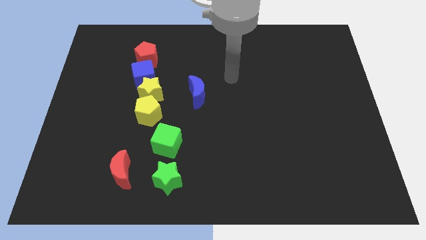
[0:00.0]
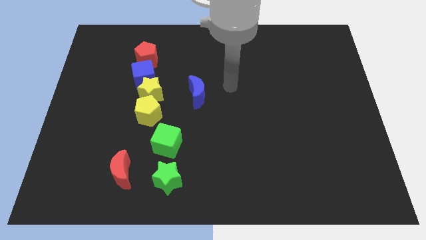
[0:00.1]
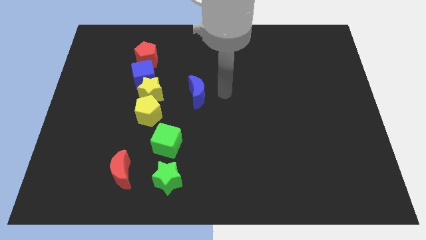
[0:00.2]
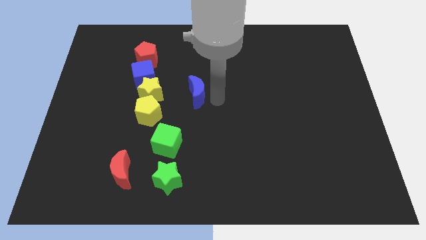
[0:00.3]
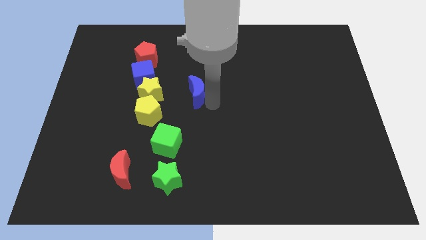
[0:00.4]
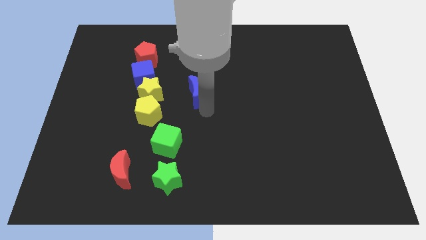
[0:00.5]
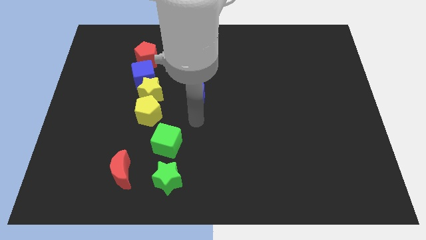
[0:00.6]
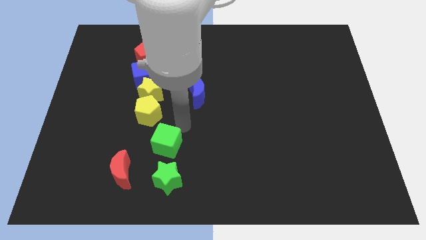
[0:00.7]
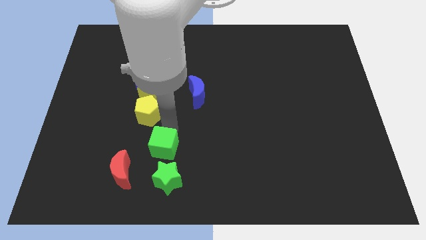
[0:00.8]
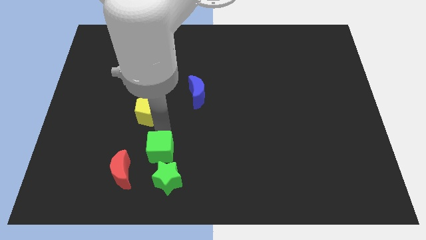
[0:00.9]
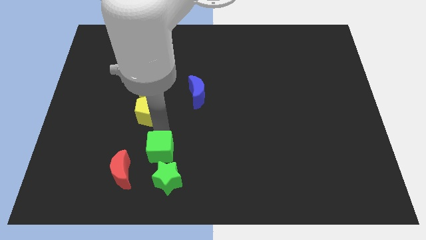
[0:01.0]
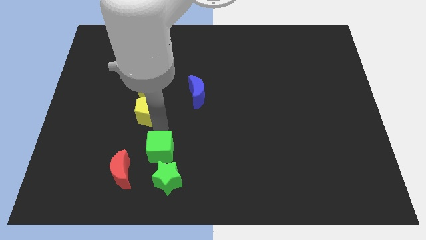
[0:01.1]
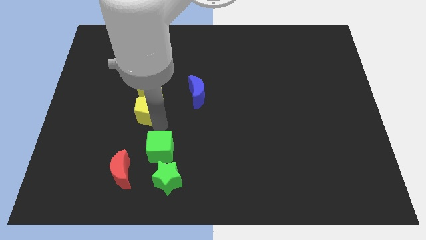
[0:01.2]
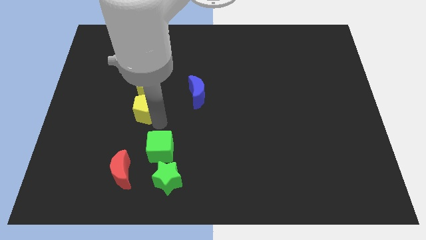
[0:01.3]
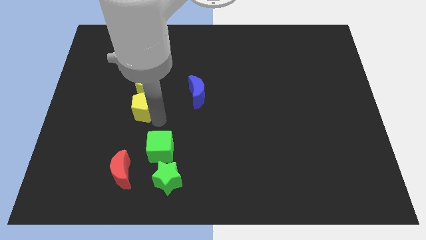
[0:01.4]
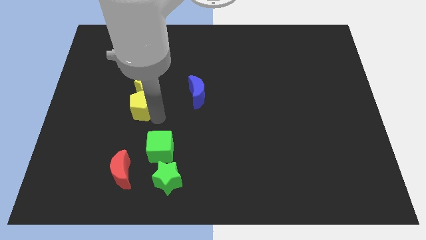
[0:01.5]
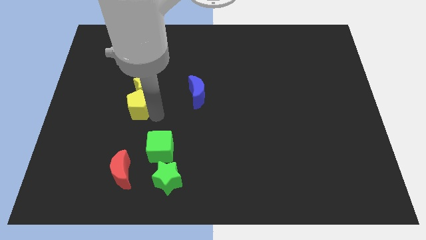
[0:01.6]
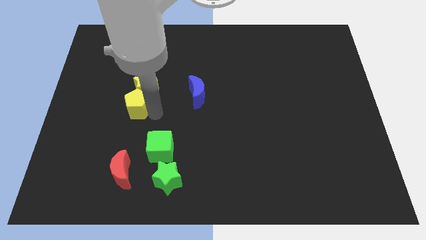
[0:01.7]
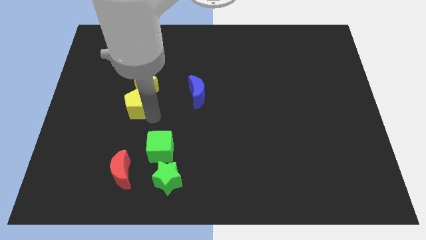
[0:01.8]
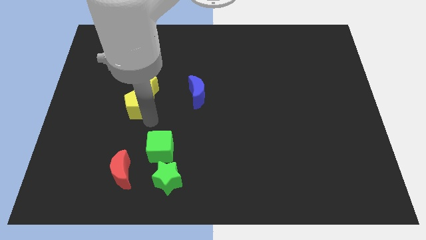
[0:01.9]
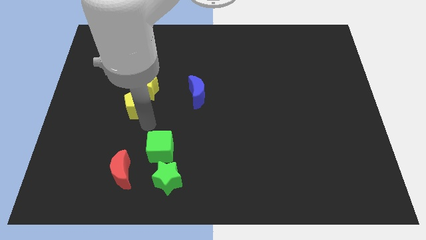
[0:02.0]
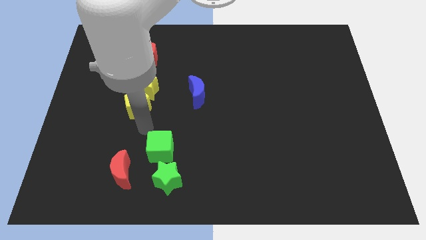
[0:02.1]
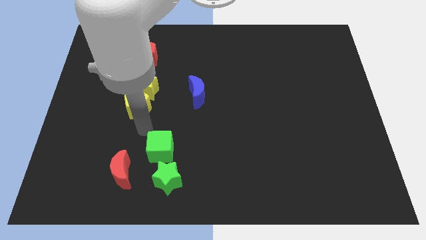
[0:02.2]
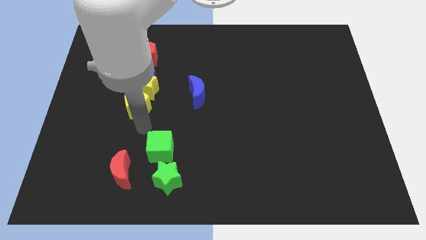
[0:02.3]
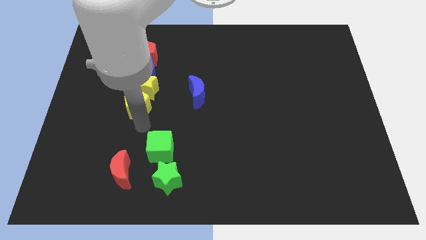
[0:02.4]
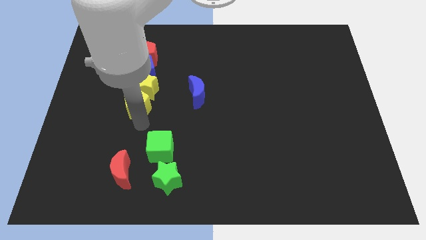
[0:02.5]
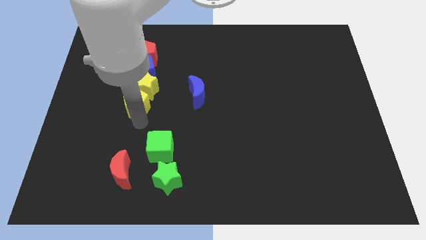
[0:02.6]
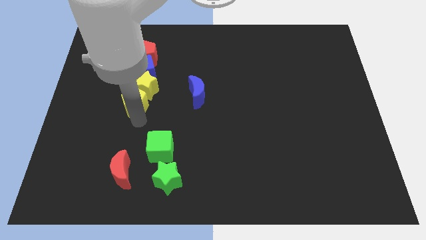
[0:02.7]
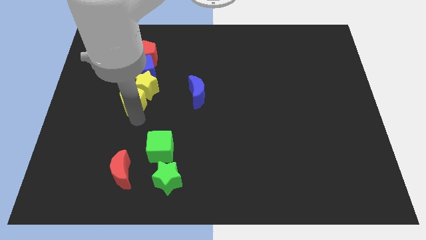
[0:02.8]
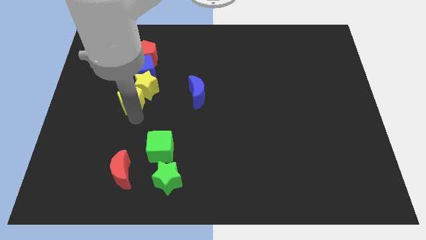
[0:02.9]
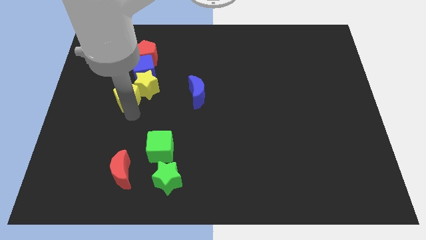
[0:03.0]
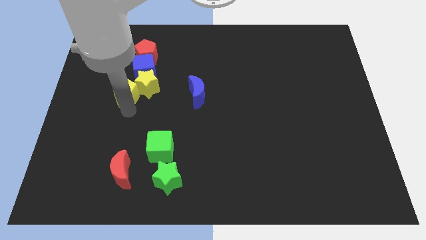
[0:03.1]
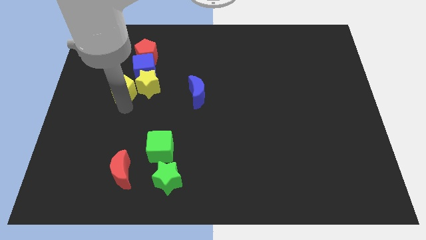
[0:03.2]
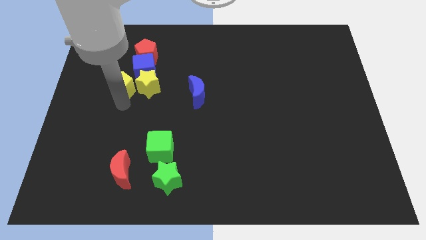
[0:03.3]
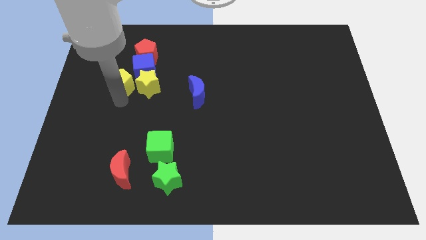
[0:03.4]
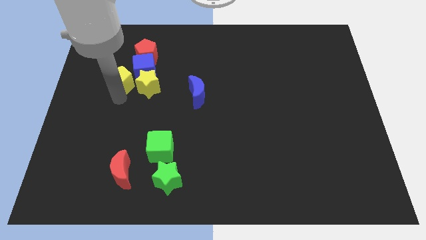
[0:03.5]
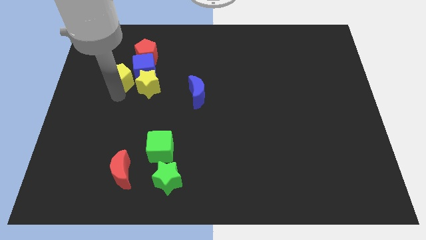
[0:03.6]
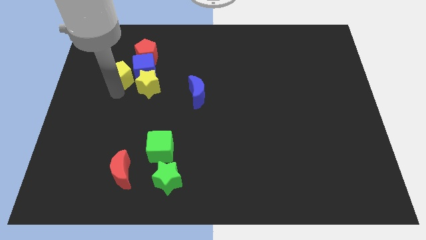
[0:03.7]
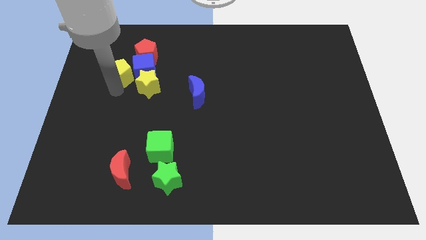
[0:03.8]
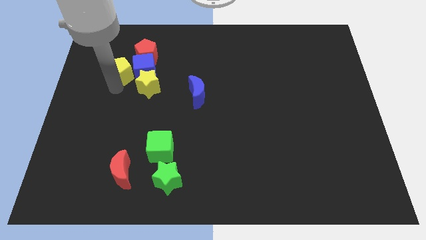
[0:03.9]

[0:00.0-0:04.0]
put the yellow pentagon to the top left of the blue cube

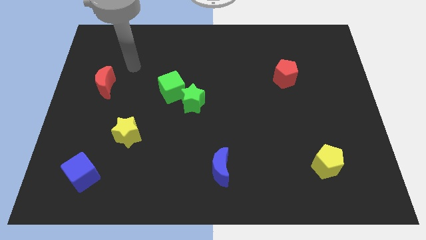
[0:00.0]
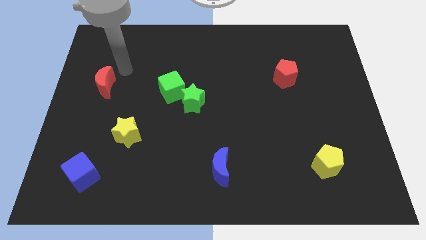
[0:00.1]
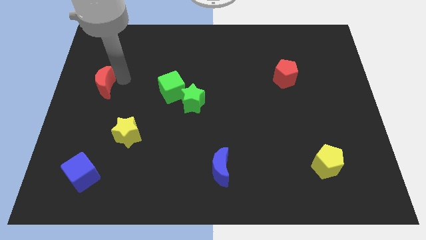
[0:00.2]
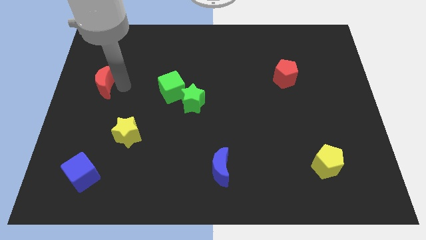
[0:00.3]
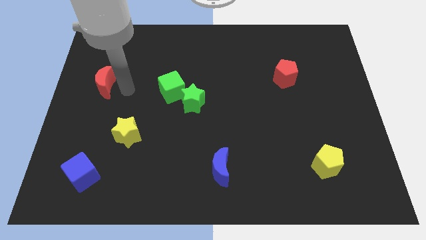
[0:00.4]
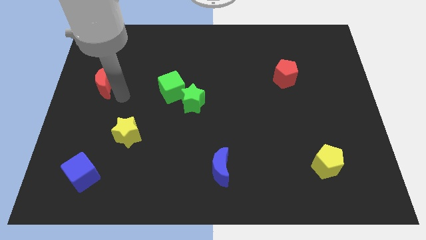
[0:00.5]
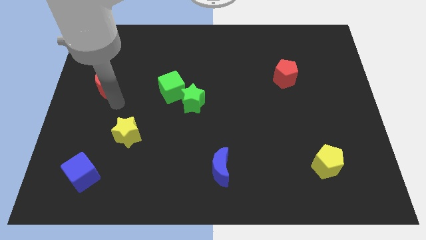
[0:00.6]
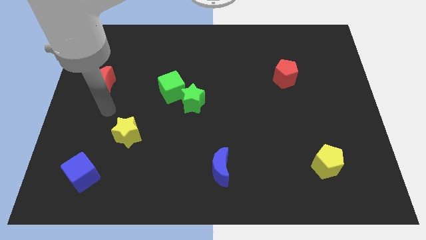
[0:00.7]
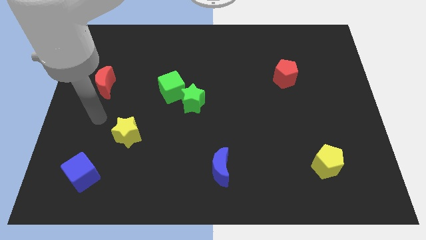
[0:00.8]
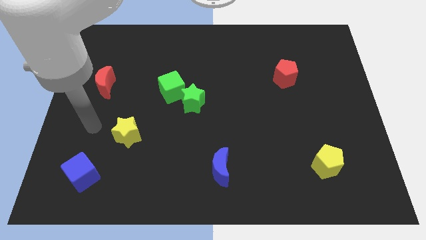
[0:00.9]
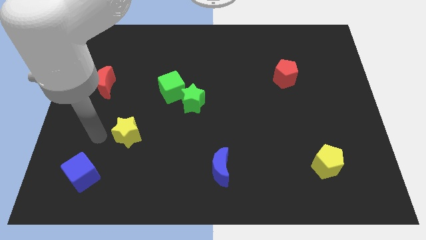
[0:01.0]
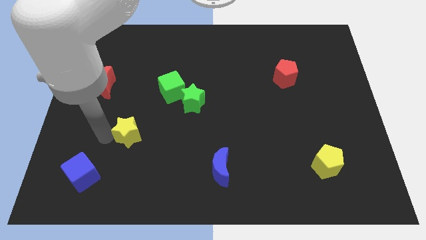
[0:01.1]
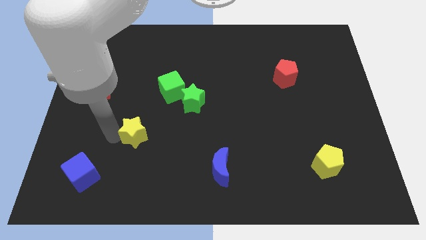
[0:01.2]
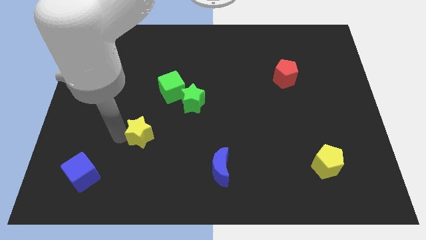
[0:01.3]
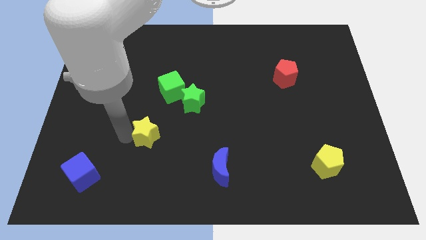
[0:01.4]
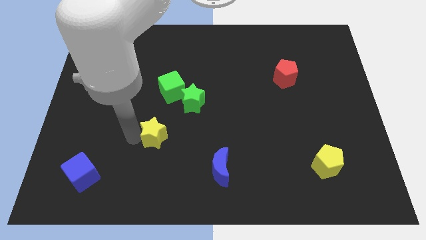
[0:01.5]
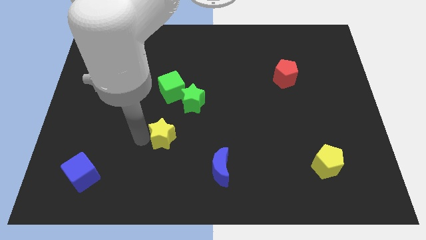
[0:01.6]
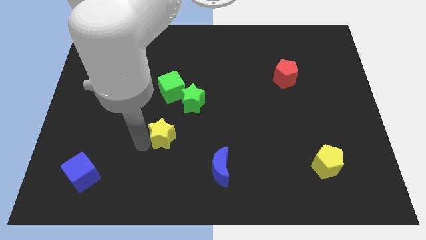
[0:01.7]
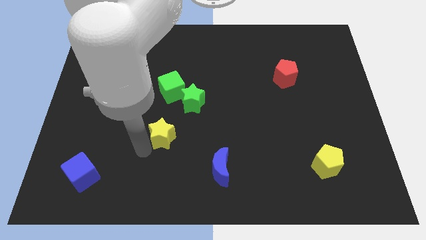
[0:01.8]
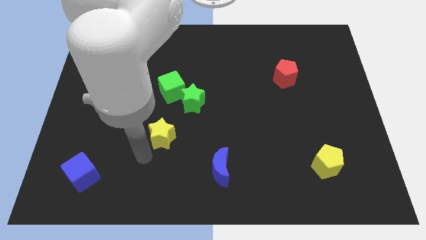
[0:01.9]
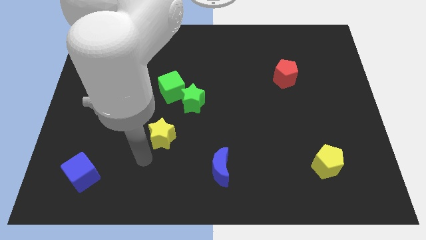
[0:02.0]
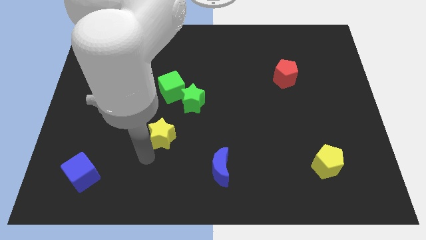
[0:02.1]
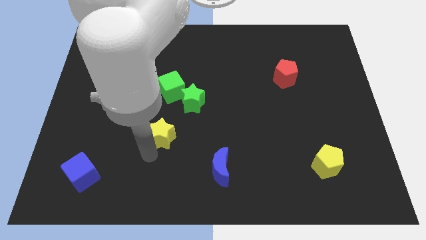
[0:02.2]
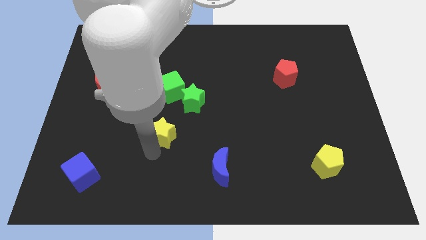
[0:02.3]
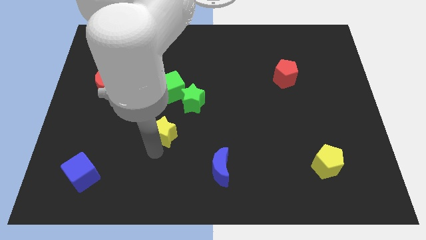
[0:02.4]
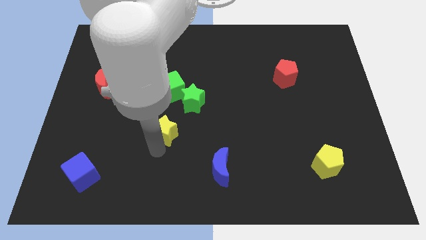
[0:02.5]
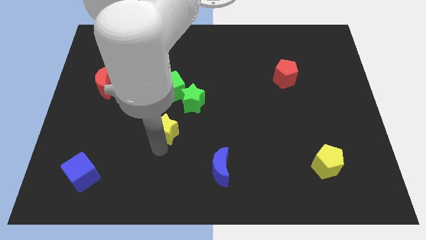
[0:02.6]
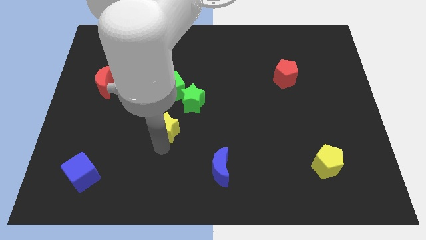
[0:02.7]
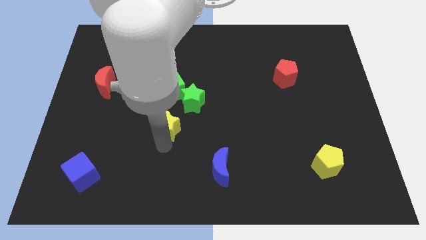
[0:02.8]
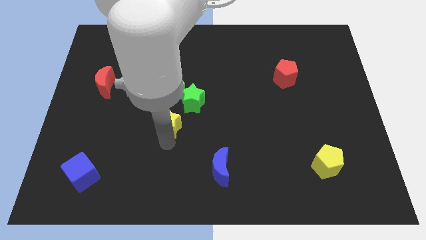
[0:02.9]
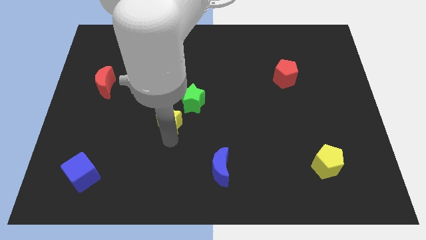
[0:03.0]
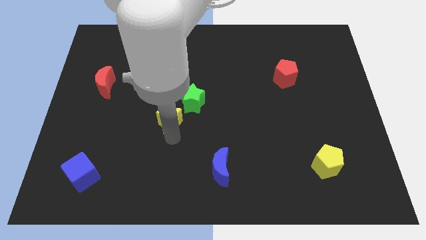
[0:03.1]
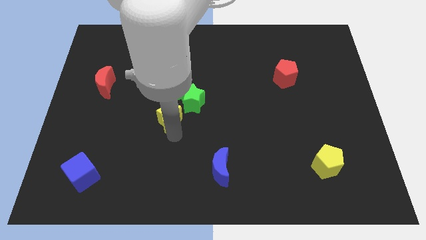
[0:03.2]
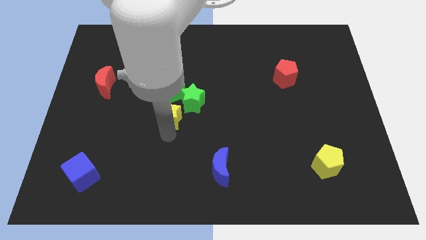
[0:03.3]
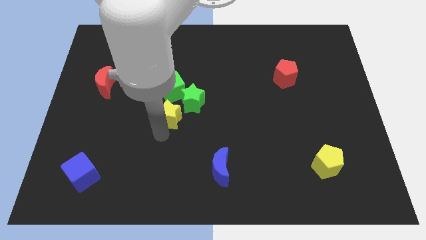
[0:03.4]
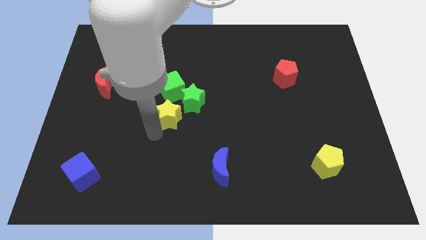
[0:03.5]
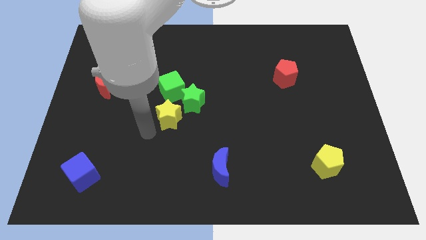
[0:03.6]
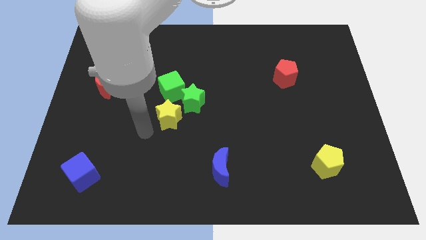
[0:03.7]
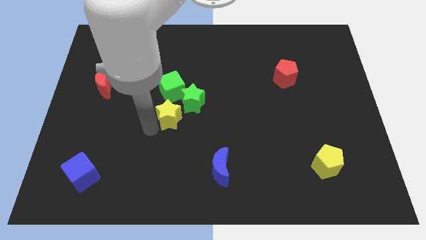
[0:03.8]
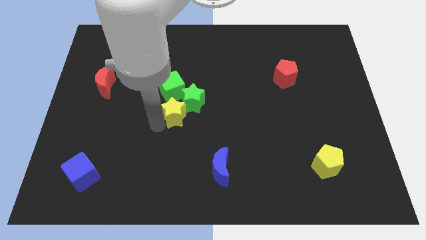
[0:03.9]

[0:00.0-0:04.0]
slide the yellow star to the bottom right of the green cube
